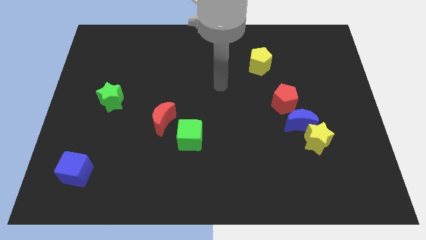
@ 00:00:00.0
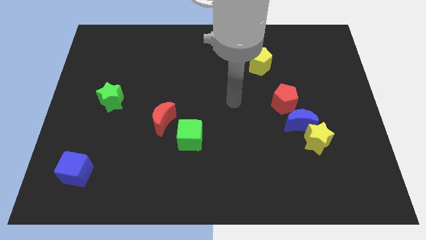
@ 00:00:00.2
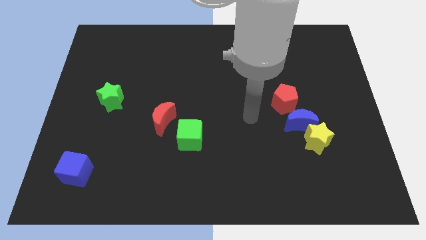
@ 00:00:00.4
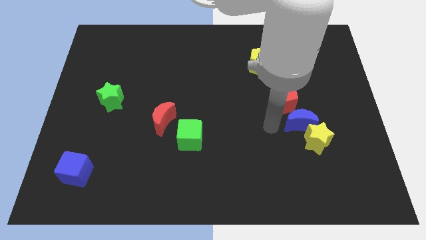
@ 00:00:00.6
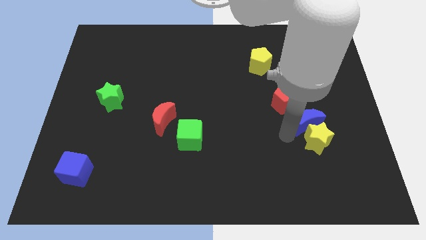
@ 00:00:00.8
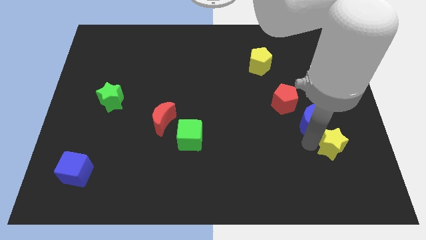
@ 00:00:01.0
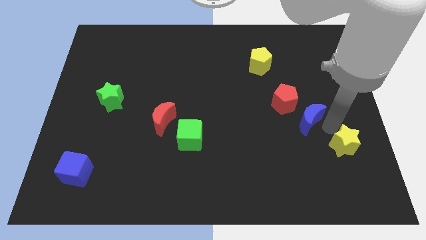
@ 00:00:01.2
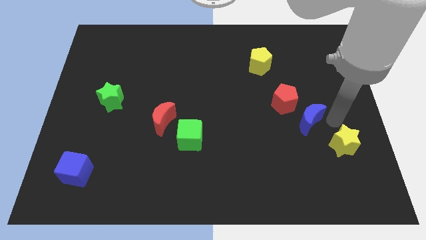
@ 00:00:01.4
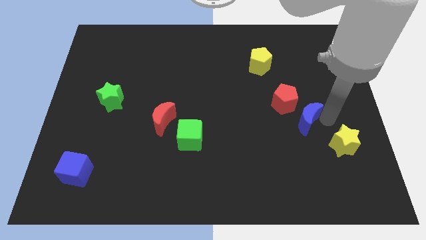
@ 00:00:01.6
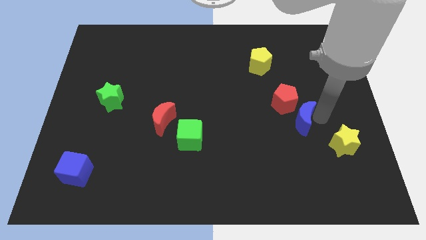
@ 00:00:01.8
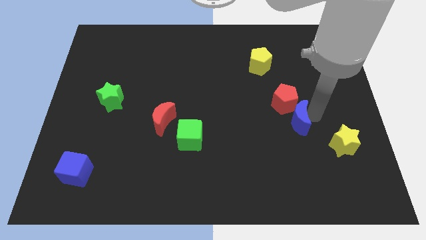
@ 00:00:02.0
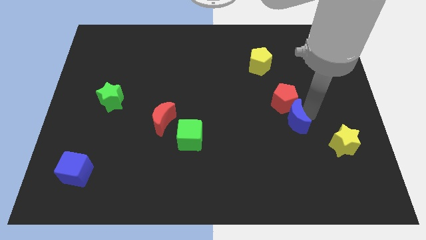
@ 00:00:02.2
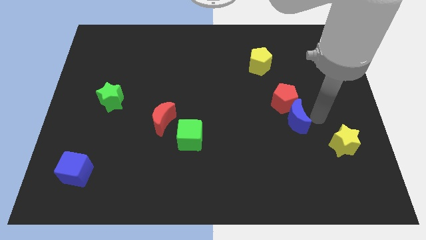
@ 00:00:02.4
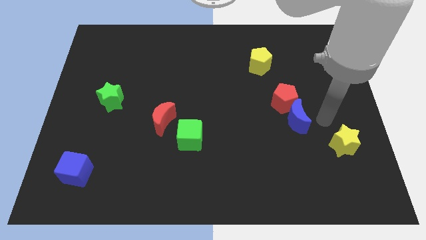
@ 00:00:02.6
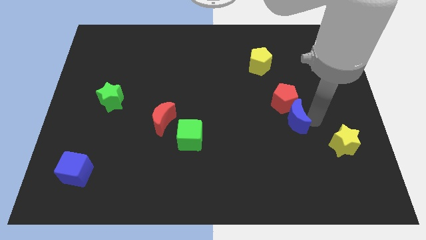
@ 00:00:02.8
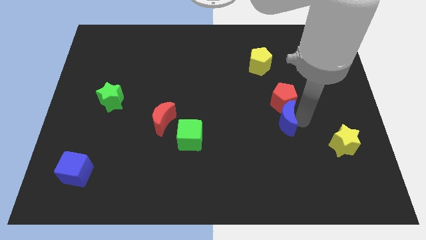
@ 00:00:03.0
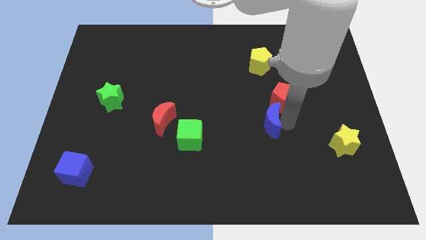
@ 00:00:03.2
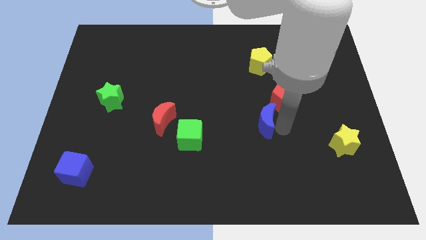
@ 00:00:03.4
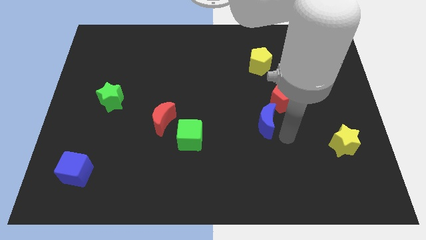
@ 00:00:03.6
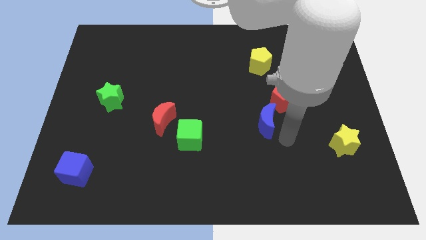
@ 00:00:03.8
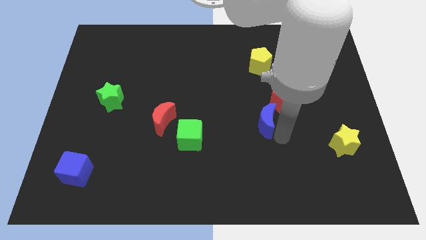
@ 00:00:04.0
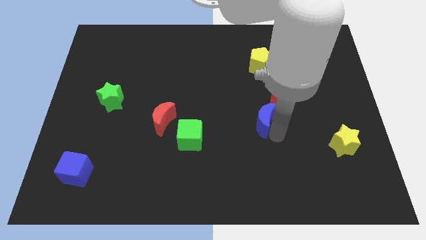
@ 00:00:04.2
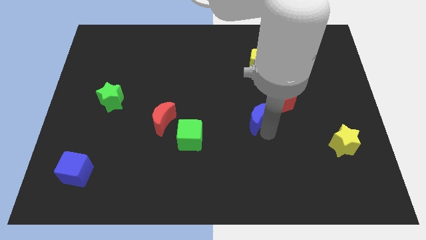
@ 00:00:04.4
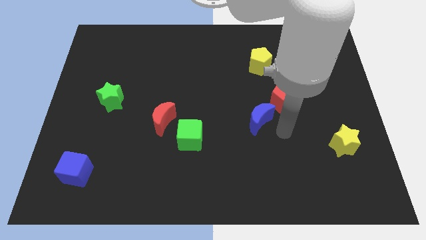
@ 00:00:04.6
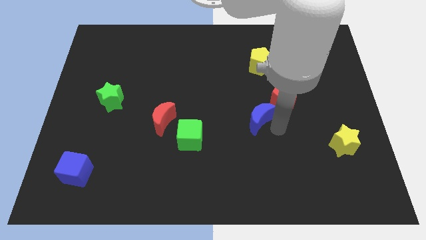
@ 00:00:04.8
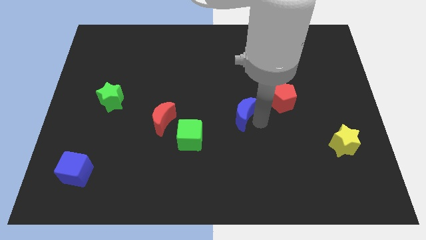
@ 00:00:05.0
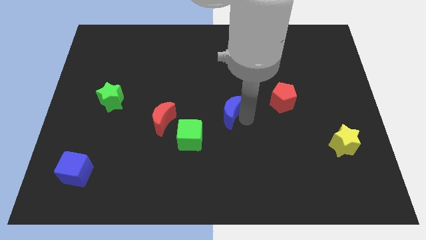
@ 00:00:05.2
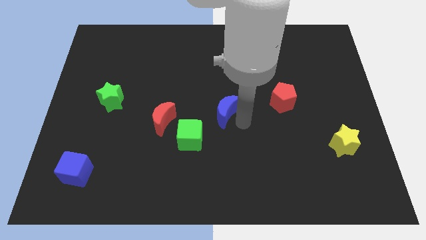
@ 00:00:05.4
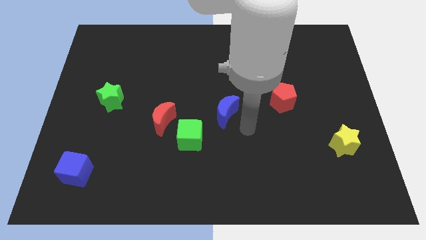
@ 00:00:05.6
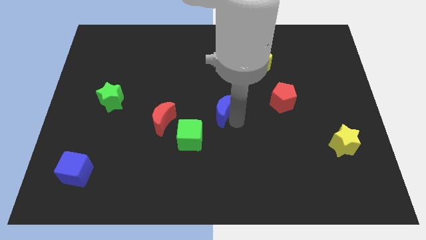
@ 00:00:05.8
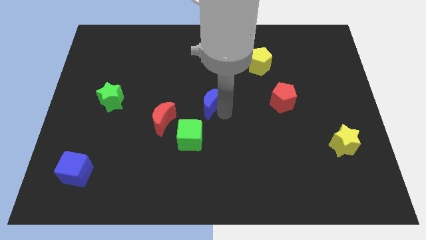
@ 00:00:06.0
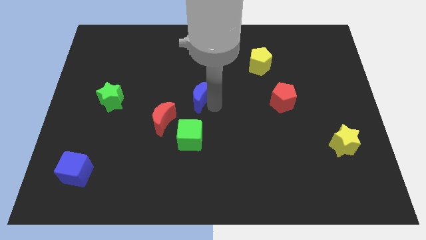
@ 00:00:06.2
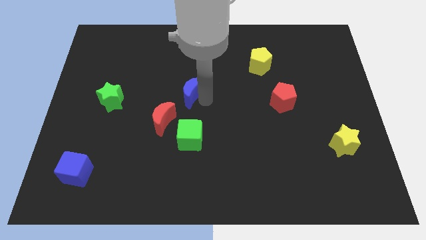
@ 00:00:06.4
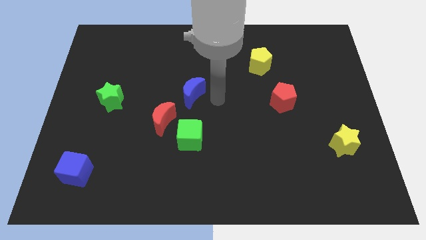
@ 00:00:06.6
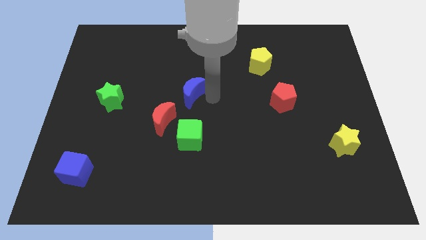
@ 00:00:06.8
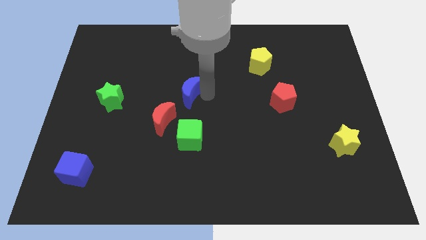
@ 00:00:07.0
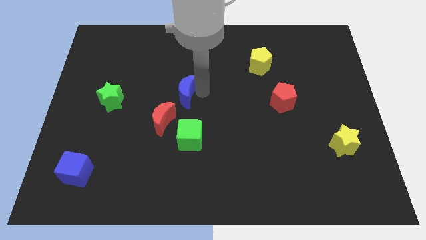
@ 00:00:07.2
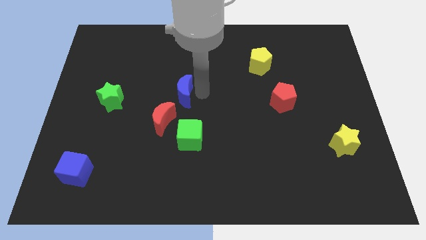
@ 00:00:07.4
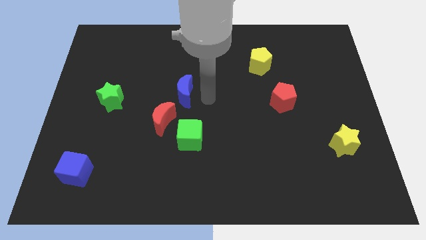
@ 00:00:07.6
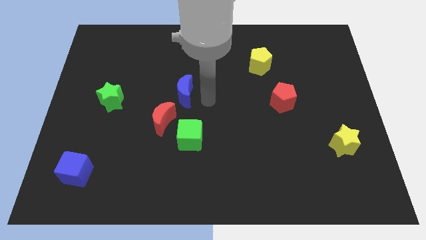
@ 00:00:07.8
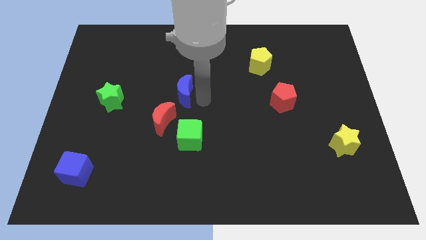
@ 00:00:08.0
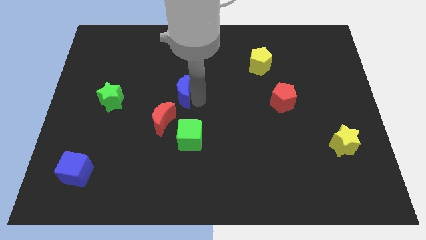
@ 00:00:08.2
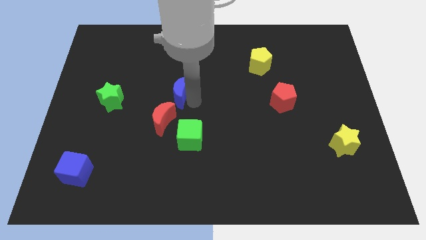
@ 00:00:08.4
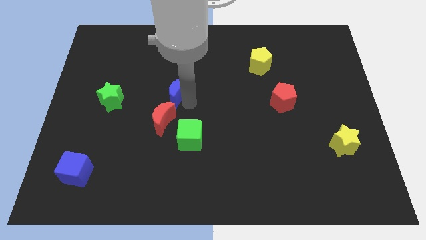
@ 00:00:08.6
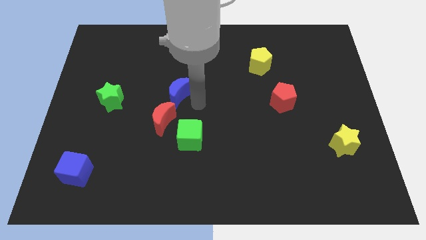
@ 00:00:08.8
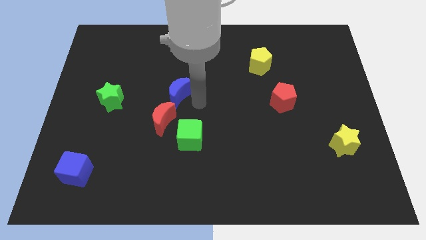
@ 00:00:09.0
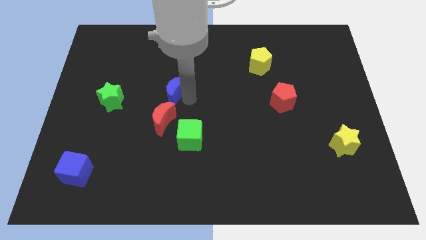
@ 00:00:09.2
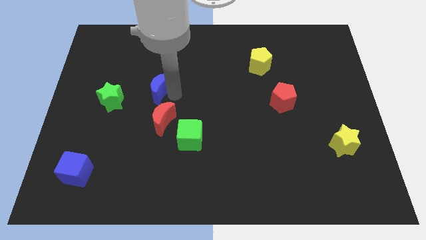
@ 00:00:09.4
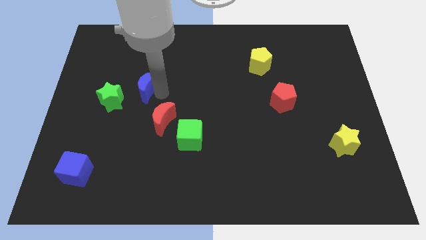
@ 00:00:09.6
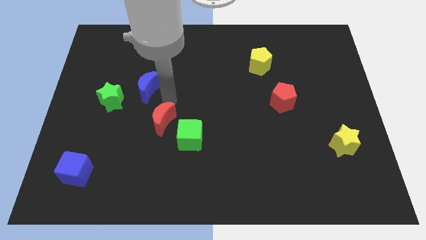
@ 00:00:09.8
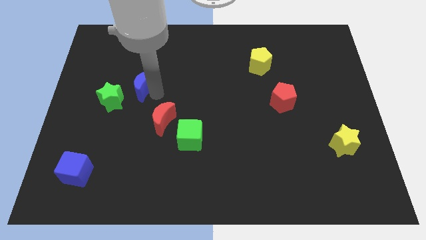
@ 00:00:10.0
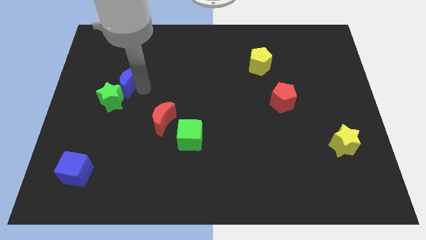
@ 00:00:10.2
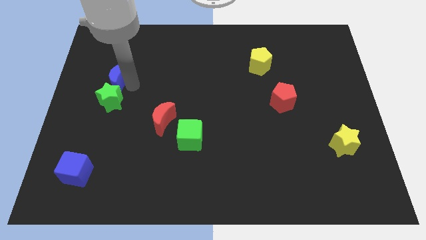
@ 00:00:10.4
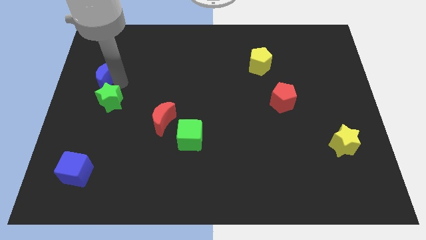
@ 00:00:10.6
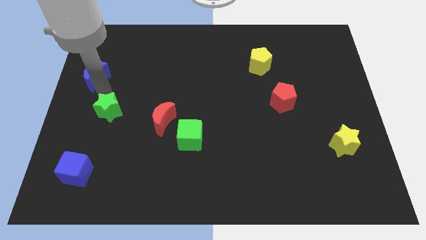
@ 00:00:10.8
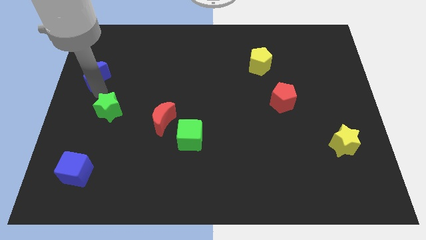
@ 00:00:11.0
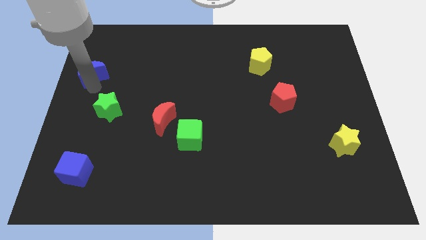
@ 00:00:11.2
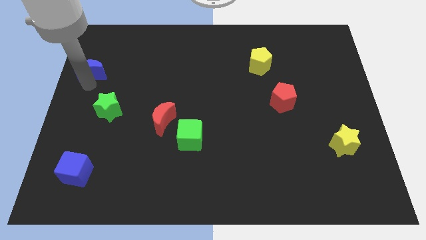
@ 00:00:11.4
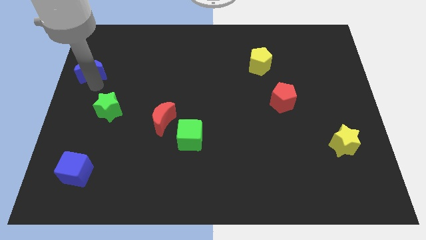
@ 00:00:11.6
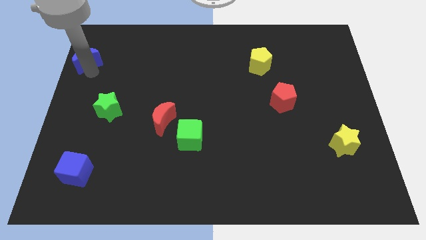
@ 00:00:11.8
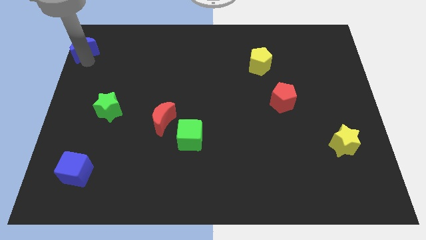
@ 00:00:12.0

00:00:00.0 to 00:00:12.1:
move the blue moon to the upper left corner

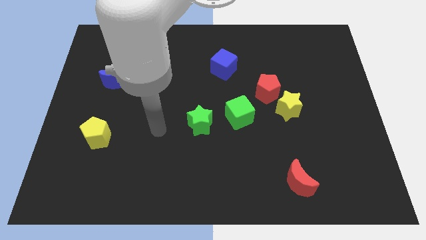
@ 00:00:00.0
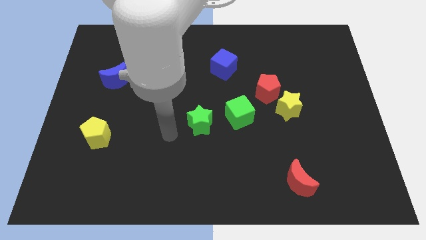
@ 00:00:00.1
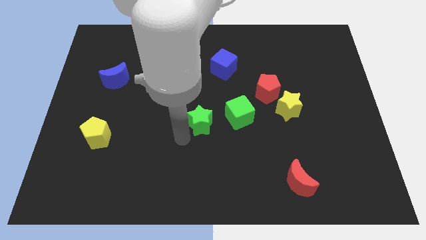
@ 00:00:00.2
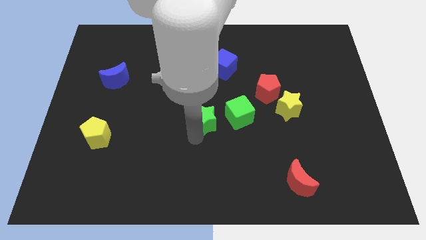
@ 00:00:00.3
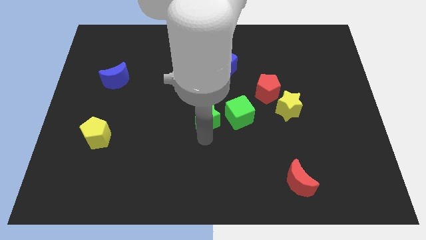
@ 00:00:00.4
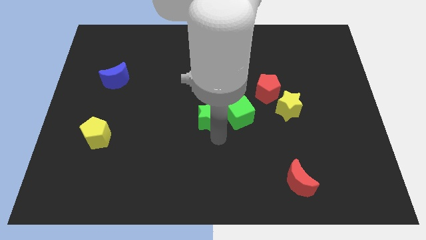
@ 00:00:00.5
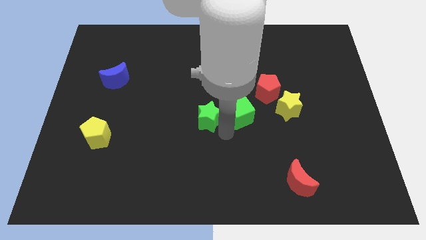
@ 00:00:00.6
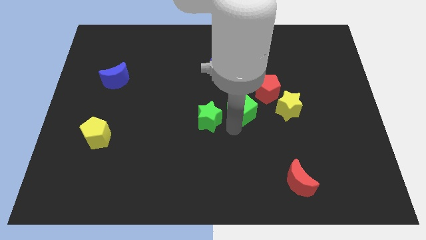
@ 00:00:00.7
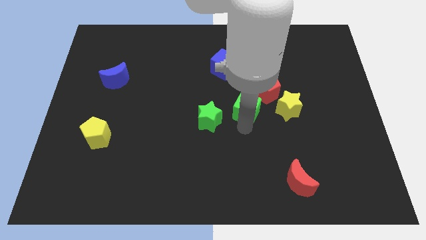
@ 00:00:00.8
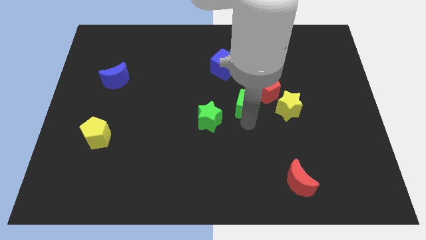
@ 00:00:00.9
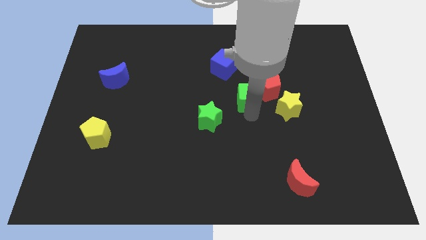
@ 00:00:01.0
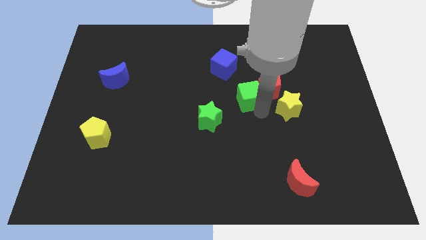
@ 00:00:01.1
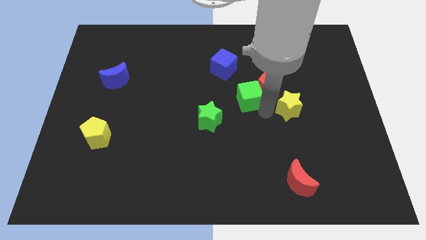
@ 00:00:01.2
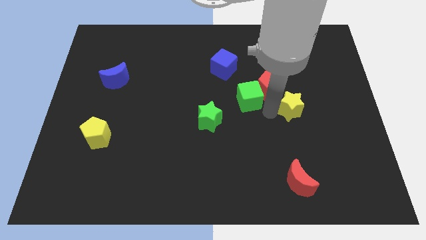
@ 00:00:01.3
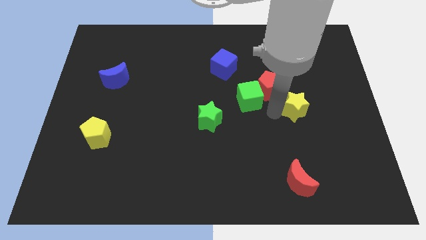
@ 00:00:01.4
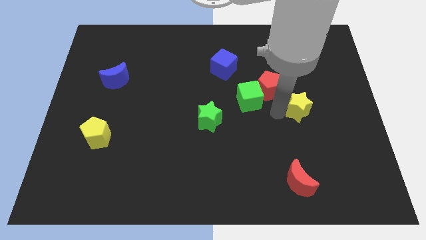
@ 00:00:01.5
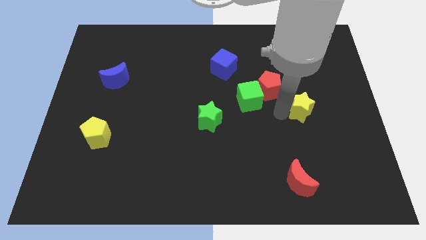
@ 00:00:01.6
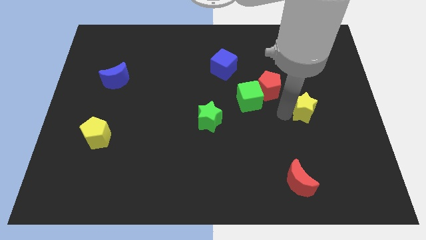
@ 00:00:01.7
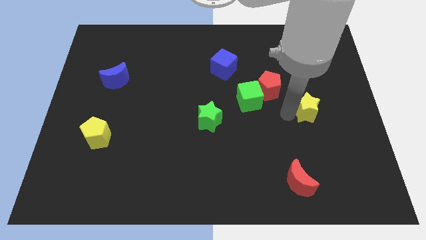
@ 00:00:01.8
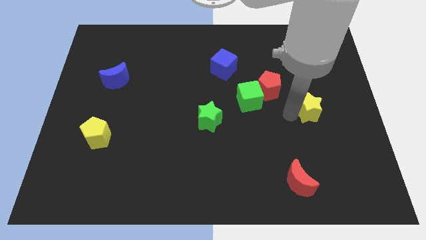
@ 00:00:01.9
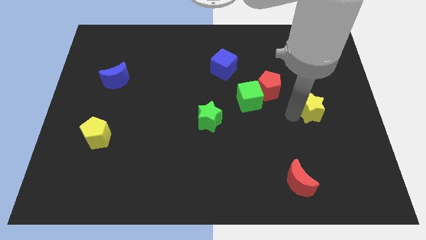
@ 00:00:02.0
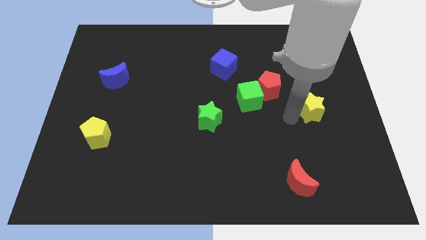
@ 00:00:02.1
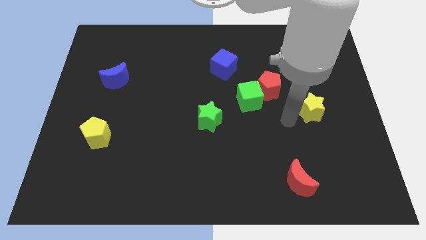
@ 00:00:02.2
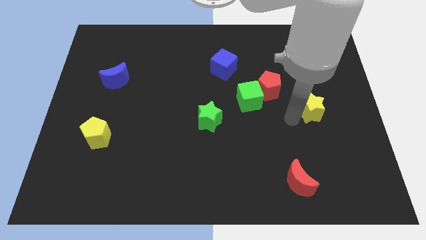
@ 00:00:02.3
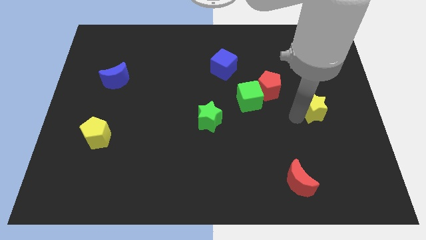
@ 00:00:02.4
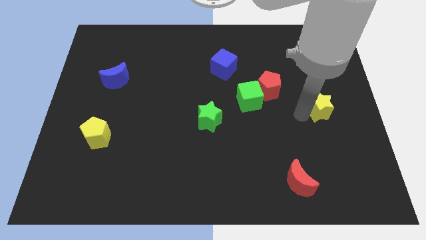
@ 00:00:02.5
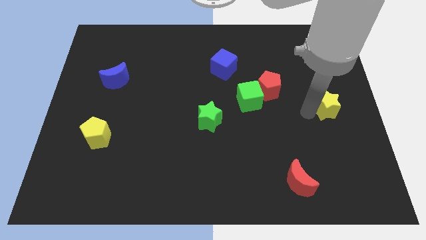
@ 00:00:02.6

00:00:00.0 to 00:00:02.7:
put the yellow star to the right side of the board
